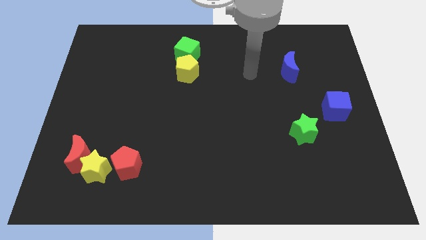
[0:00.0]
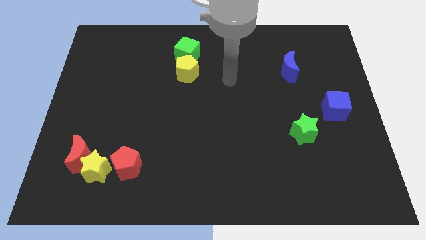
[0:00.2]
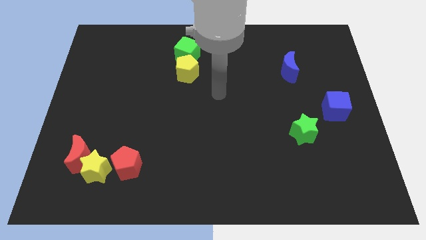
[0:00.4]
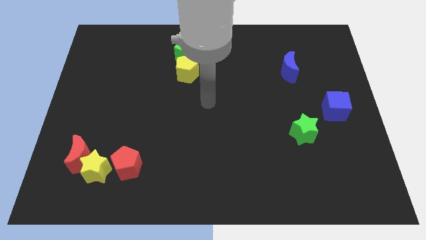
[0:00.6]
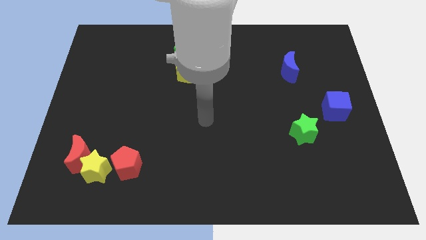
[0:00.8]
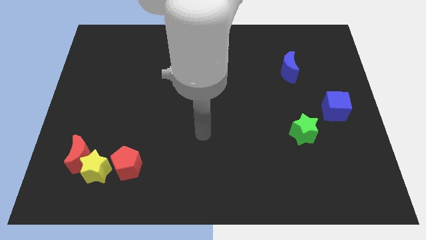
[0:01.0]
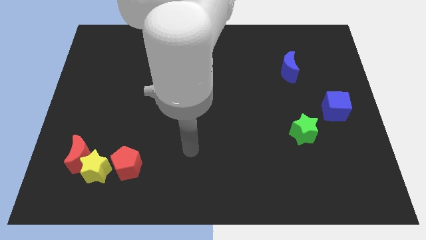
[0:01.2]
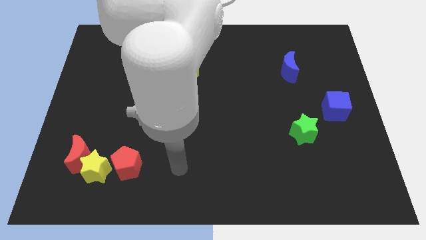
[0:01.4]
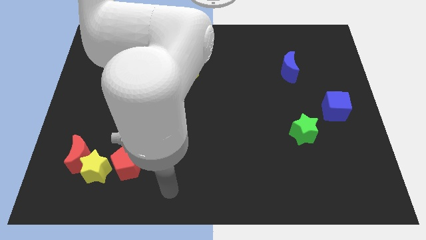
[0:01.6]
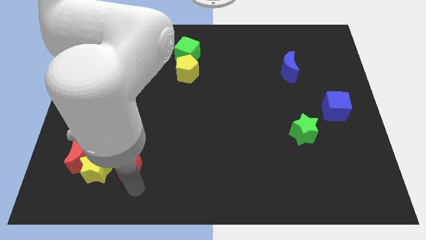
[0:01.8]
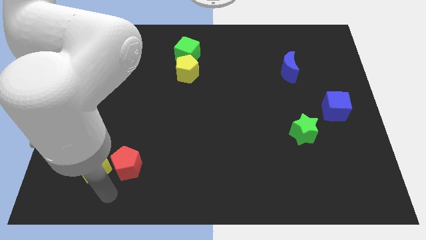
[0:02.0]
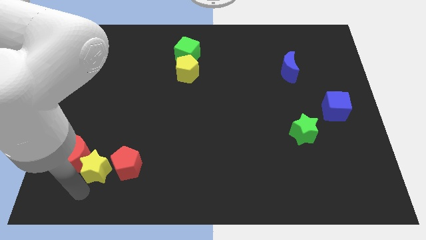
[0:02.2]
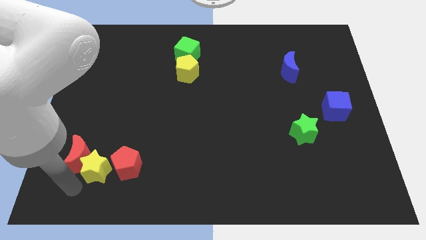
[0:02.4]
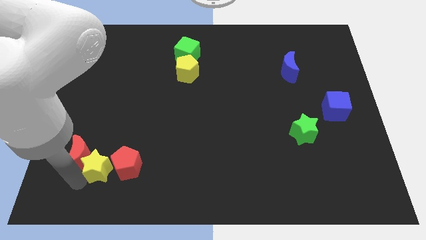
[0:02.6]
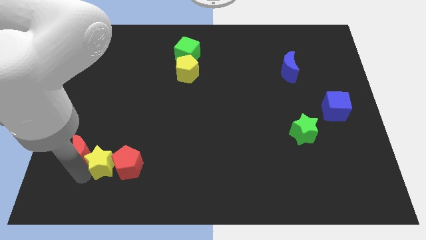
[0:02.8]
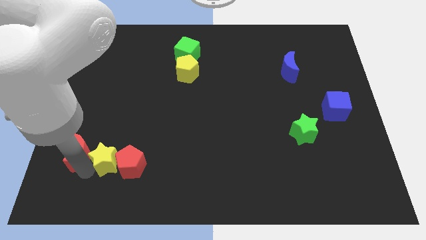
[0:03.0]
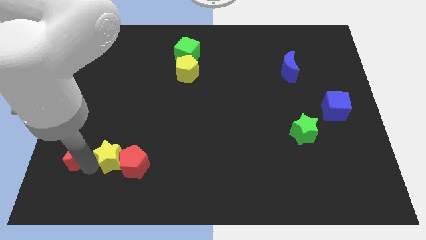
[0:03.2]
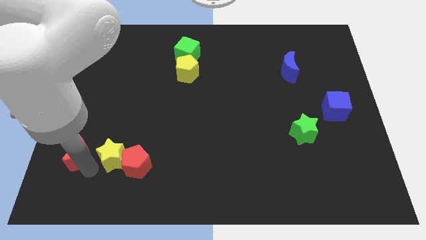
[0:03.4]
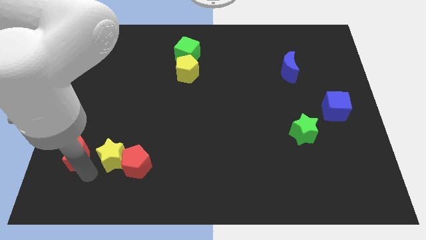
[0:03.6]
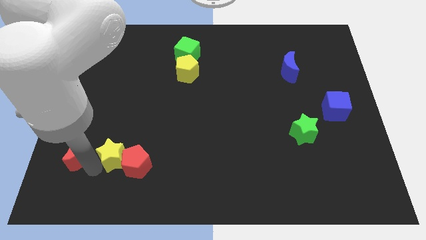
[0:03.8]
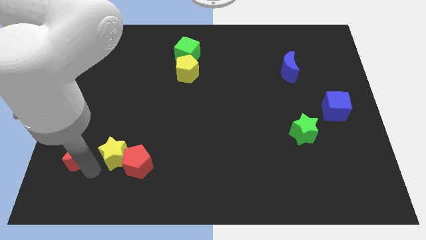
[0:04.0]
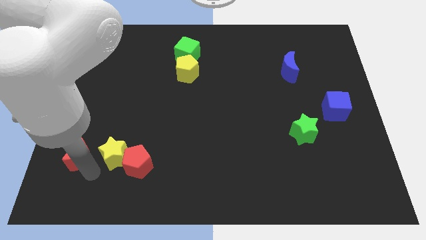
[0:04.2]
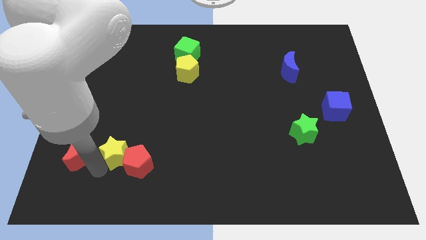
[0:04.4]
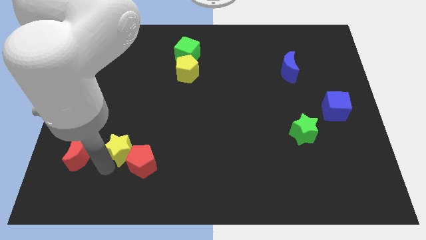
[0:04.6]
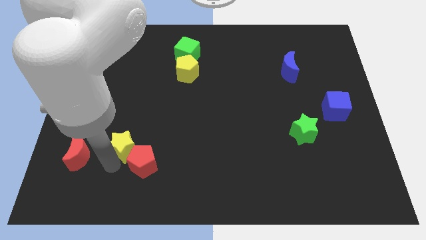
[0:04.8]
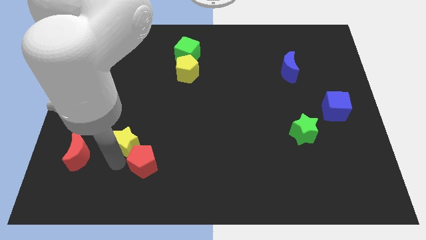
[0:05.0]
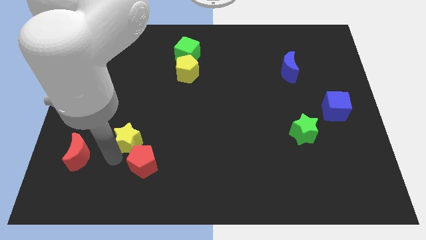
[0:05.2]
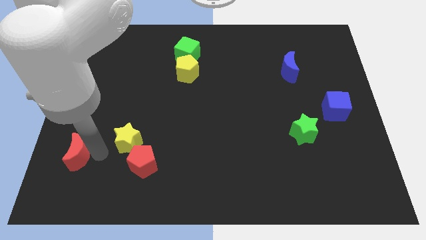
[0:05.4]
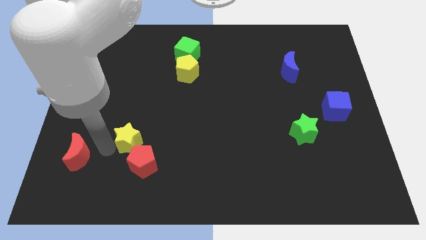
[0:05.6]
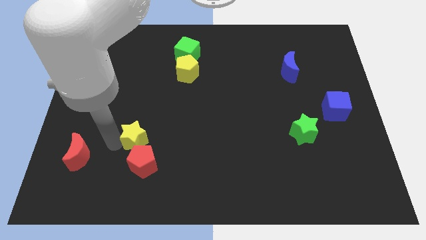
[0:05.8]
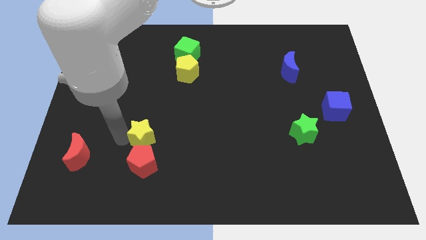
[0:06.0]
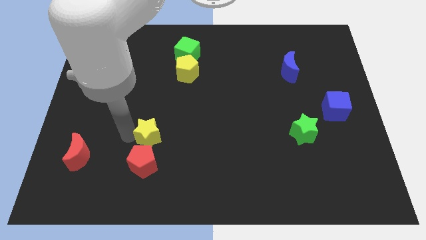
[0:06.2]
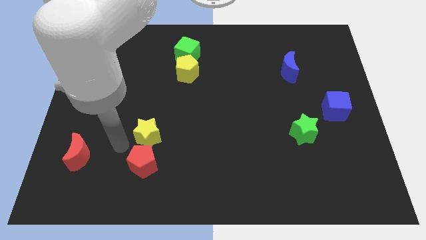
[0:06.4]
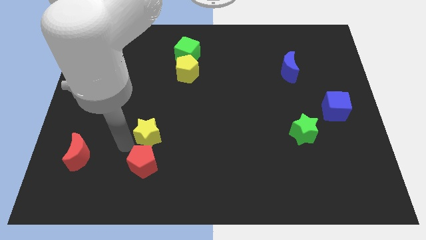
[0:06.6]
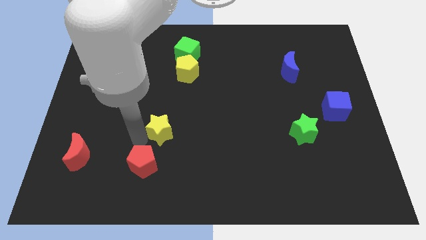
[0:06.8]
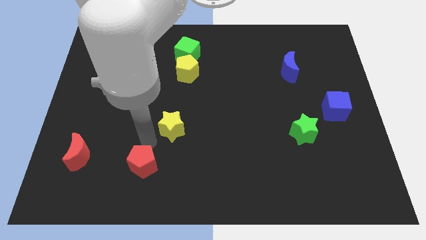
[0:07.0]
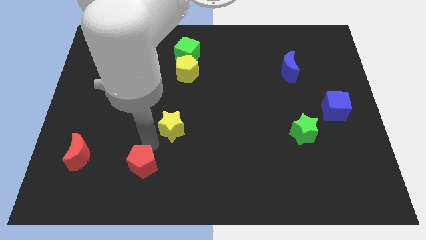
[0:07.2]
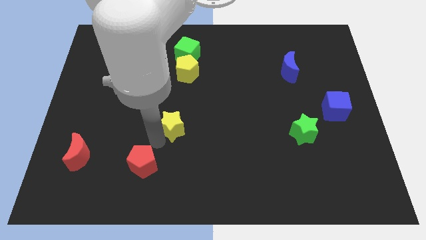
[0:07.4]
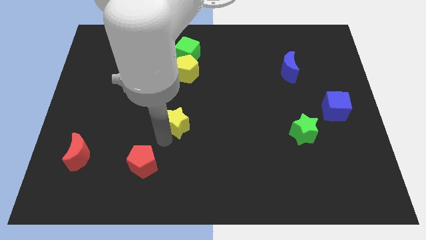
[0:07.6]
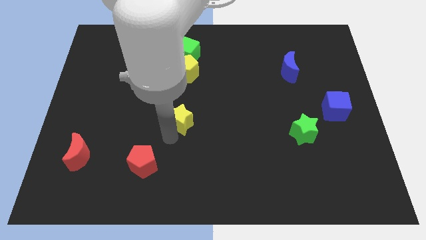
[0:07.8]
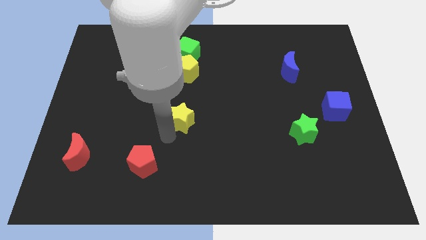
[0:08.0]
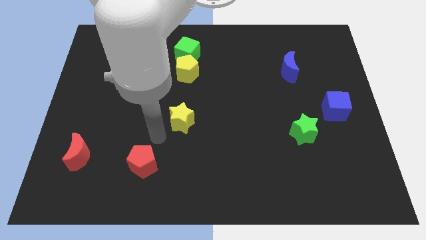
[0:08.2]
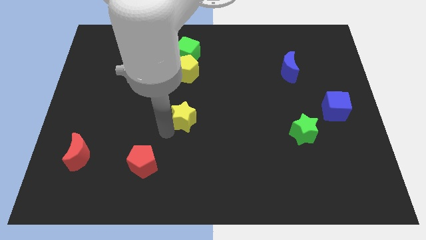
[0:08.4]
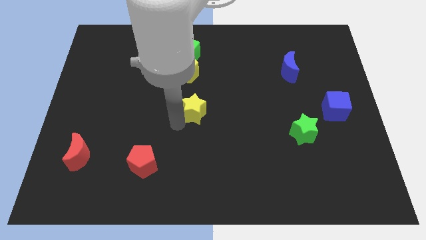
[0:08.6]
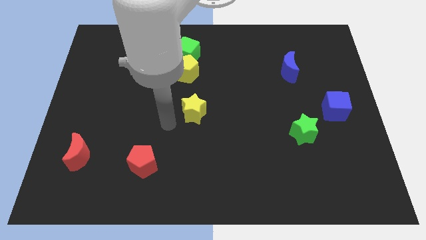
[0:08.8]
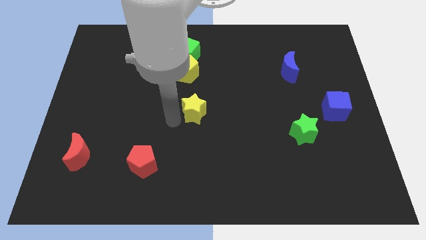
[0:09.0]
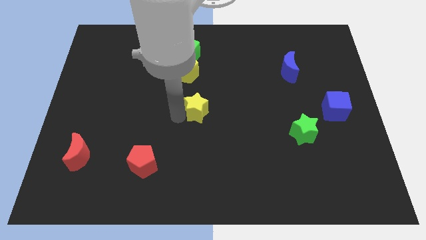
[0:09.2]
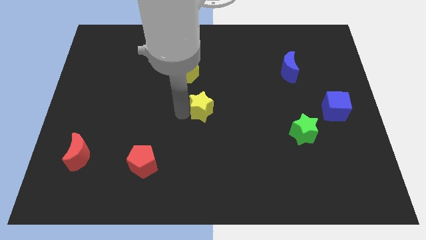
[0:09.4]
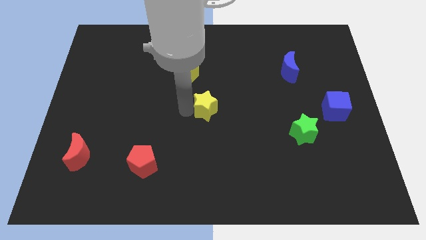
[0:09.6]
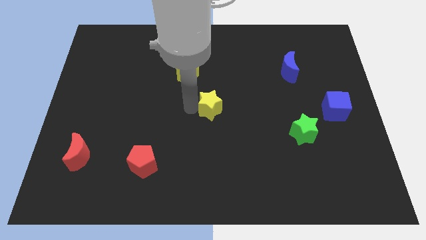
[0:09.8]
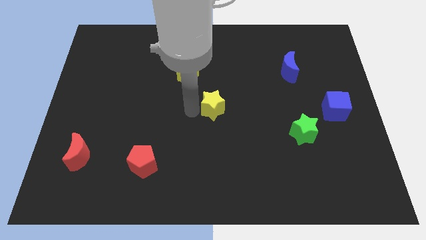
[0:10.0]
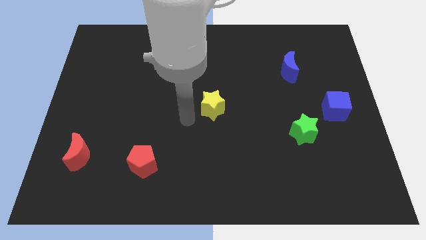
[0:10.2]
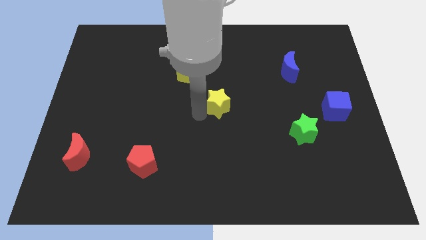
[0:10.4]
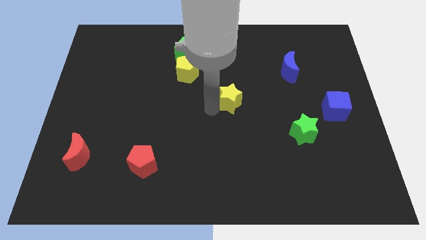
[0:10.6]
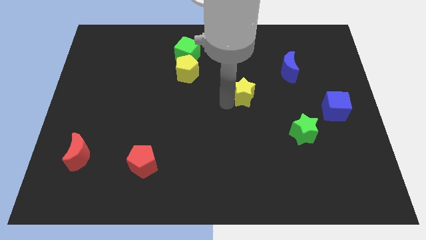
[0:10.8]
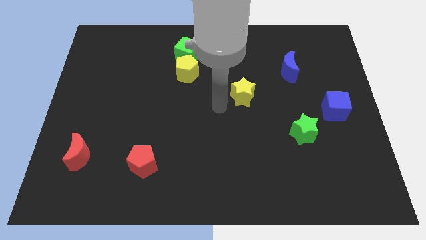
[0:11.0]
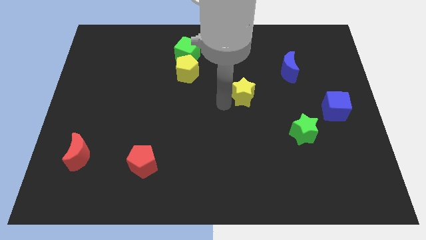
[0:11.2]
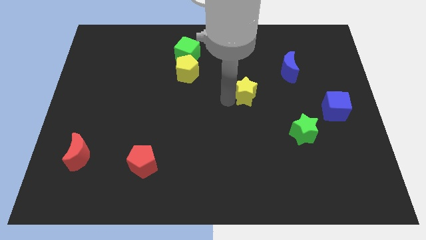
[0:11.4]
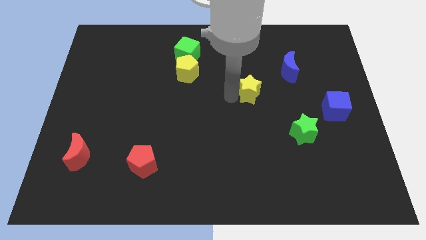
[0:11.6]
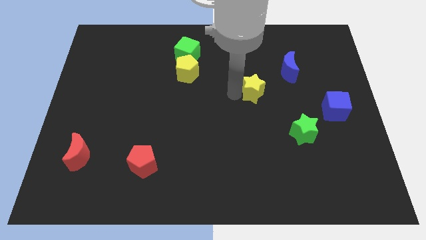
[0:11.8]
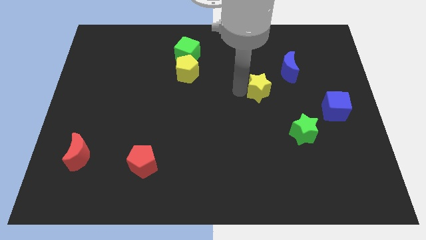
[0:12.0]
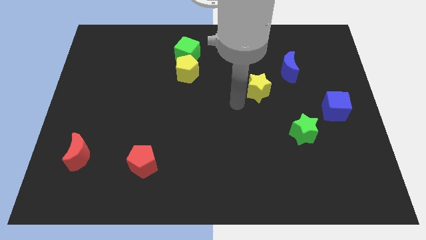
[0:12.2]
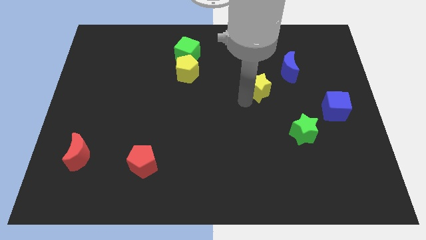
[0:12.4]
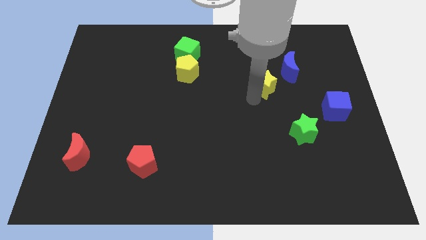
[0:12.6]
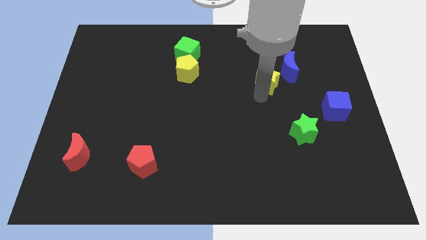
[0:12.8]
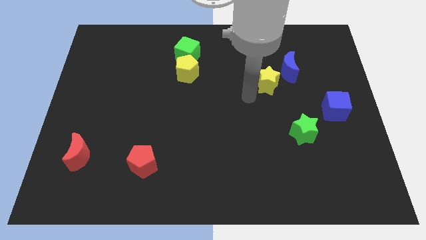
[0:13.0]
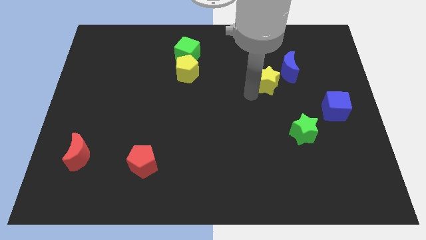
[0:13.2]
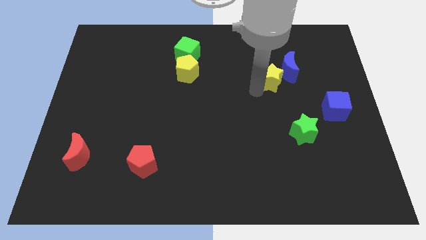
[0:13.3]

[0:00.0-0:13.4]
move the yellow star next to the blue moon
